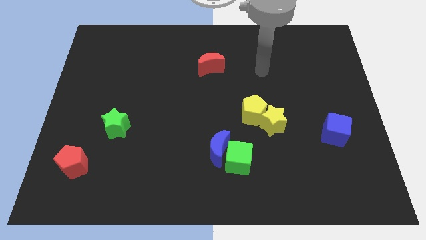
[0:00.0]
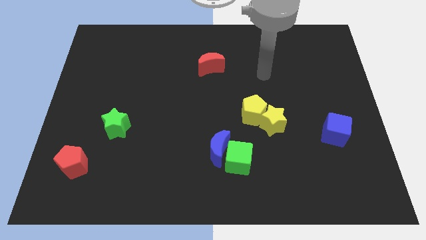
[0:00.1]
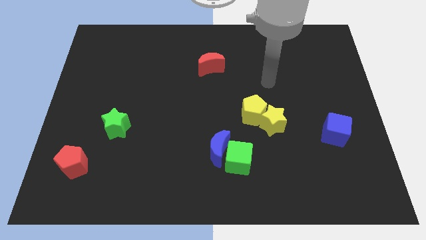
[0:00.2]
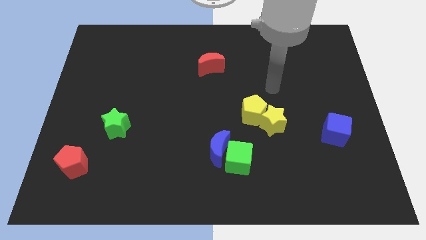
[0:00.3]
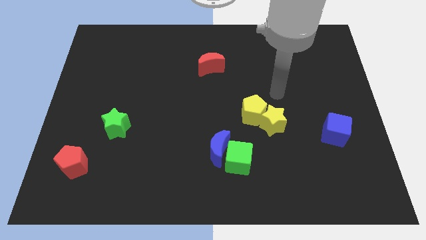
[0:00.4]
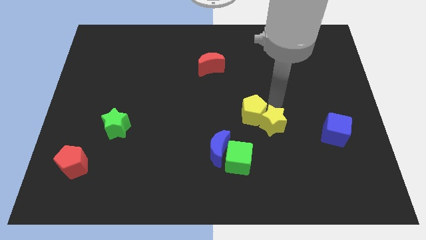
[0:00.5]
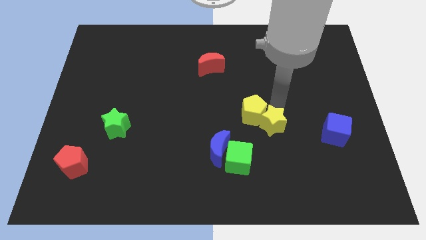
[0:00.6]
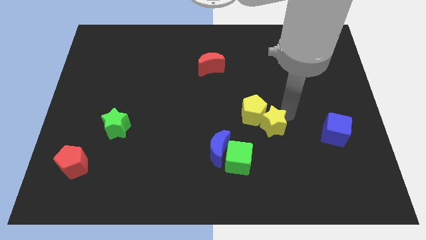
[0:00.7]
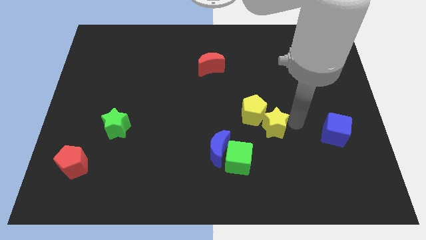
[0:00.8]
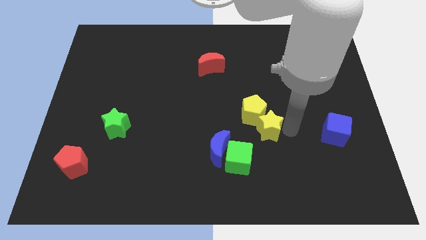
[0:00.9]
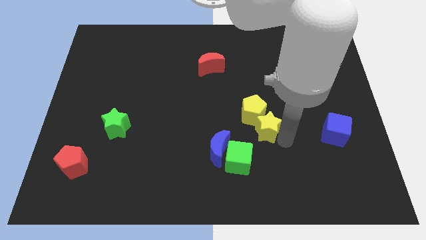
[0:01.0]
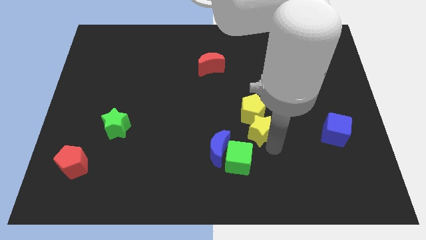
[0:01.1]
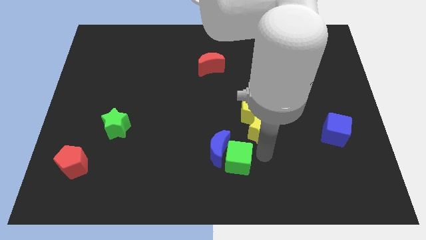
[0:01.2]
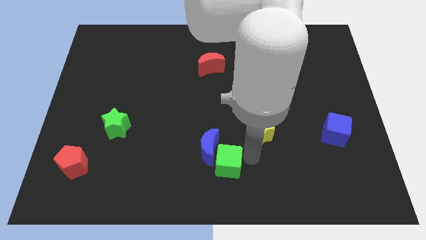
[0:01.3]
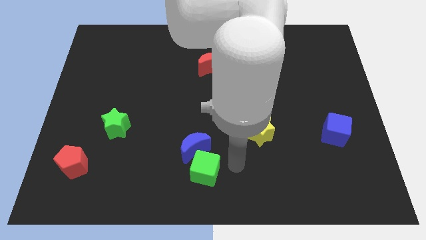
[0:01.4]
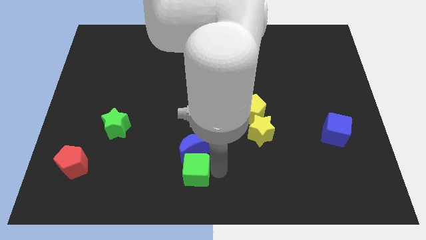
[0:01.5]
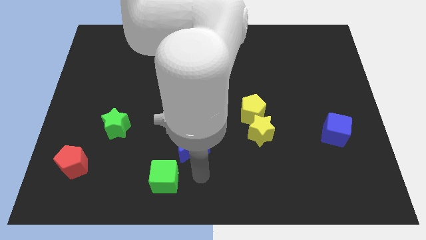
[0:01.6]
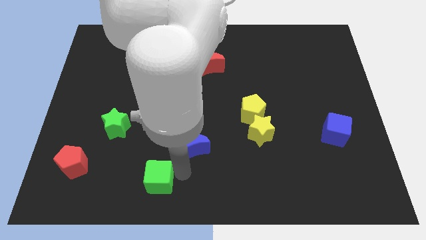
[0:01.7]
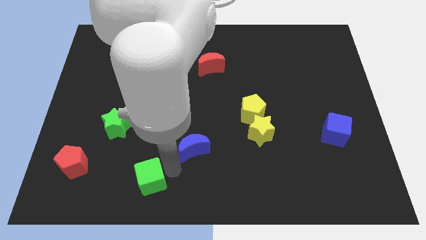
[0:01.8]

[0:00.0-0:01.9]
move the blue moon away from the green cube

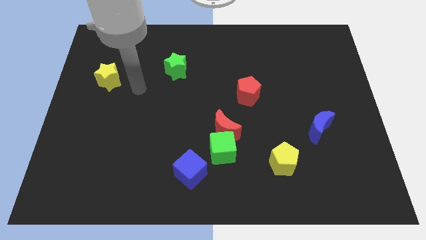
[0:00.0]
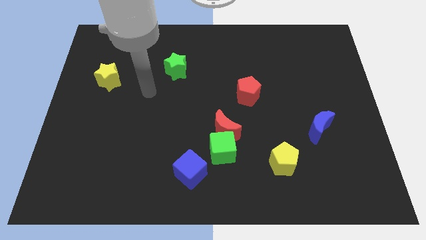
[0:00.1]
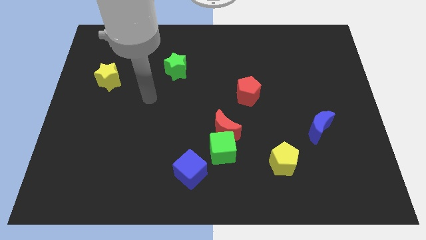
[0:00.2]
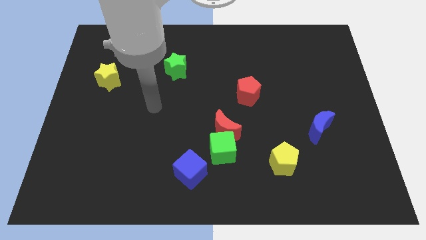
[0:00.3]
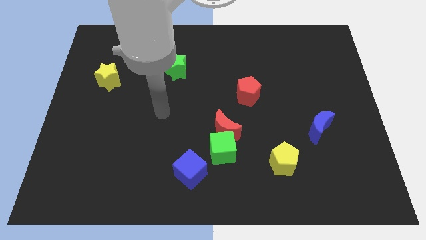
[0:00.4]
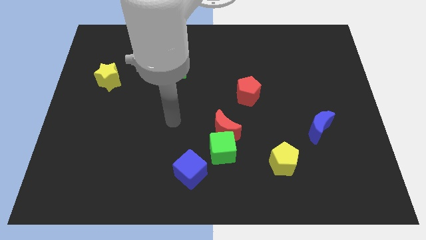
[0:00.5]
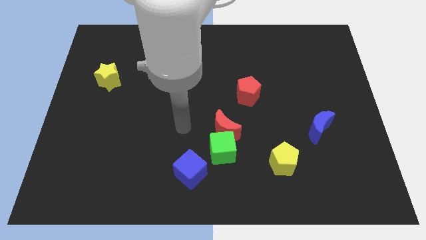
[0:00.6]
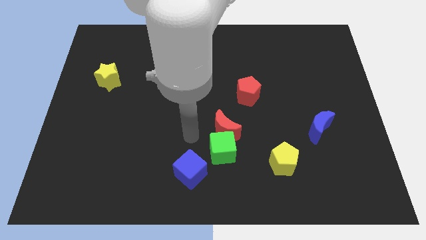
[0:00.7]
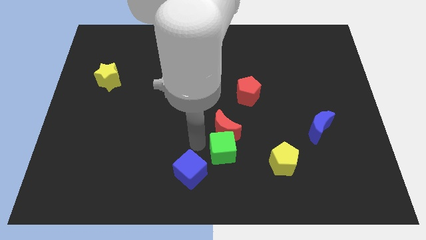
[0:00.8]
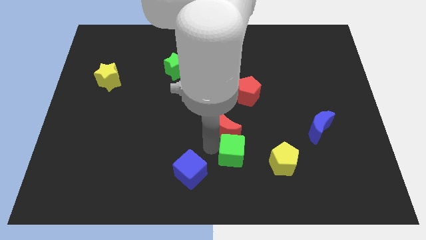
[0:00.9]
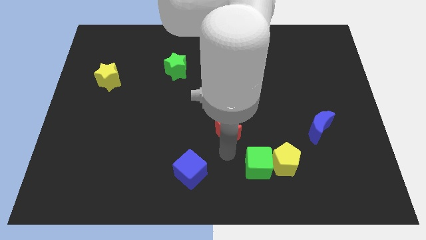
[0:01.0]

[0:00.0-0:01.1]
move the red moon away from the green cube

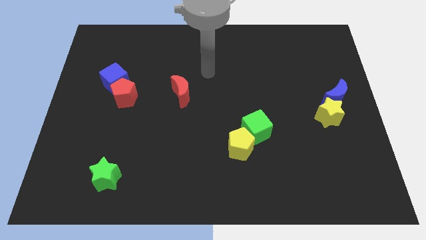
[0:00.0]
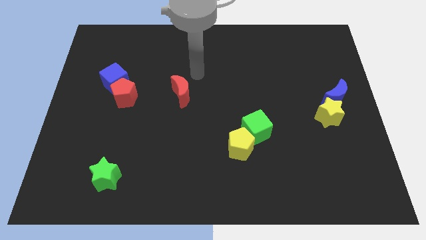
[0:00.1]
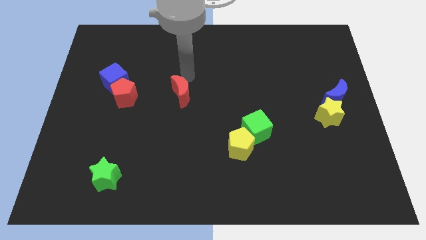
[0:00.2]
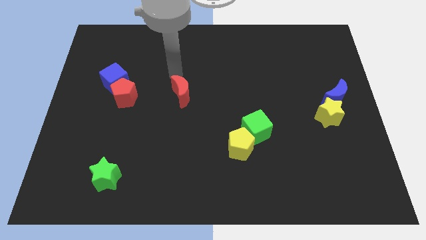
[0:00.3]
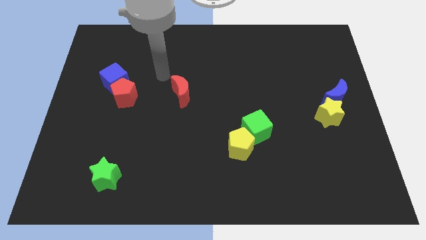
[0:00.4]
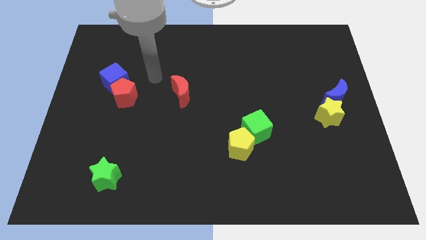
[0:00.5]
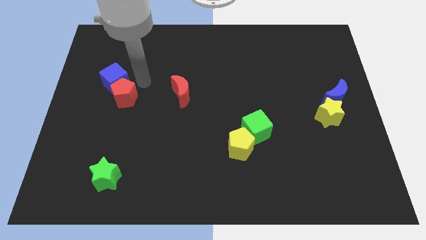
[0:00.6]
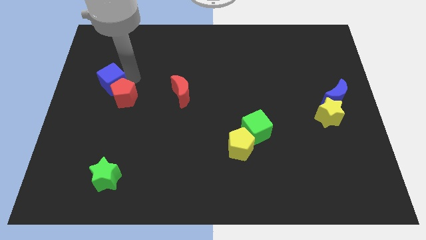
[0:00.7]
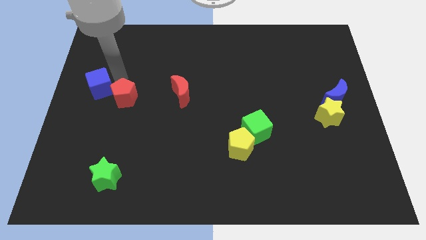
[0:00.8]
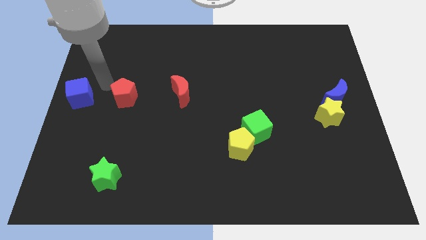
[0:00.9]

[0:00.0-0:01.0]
move the red pentagon away from the blue cube

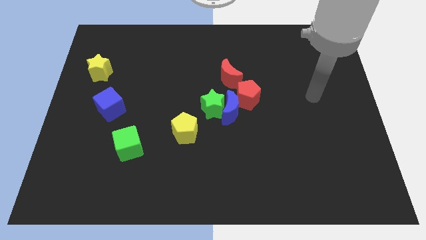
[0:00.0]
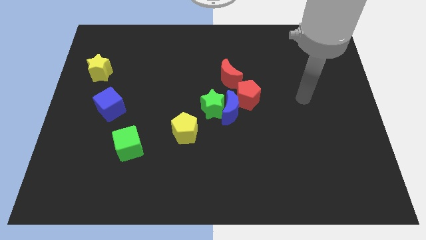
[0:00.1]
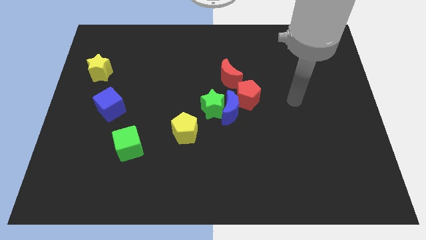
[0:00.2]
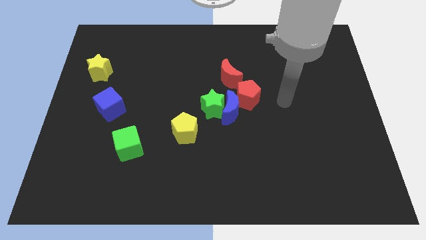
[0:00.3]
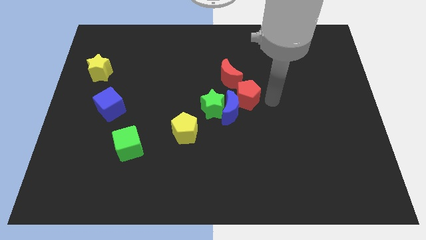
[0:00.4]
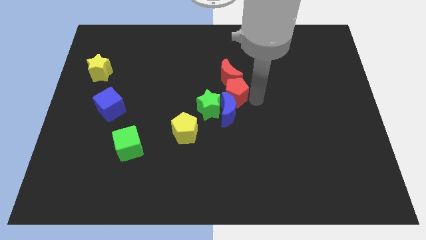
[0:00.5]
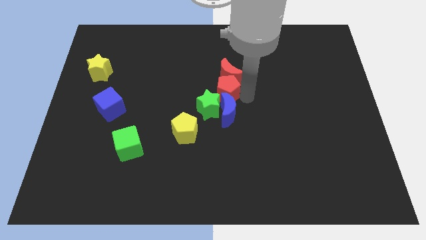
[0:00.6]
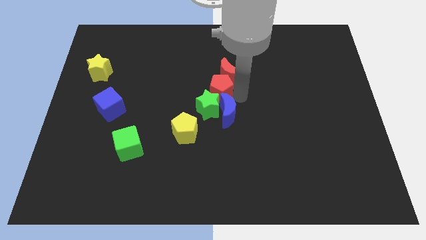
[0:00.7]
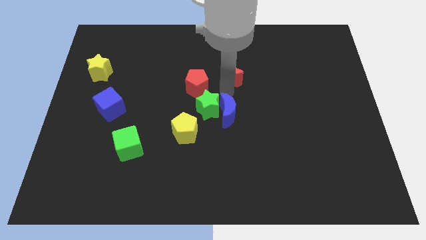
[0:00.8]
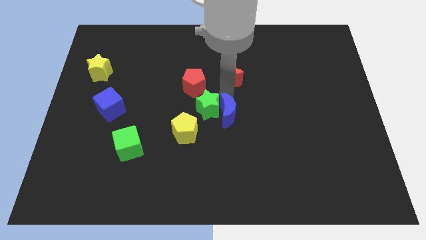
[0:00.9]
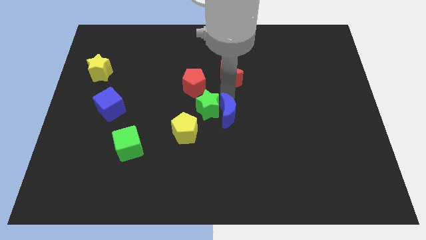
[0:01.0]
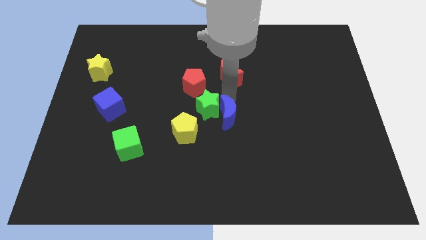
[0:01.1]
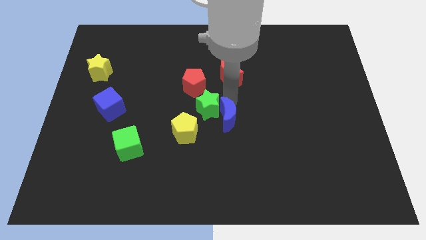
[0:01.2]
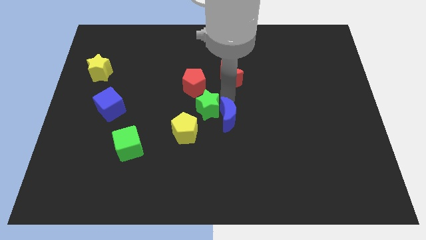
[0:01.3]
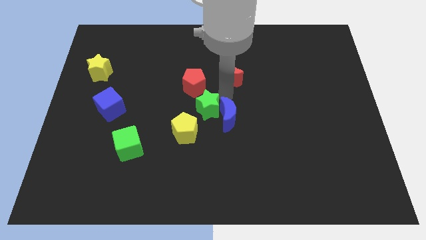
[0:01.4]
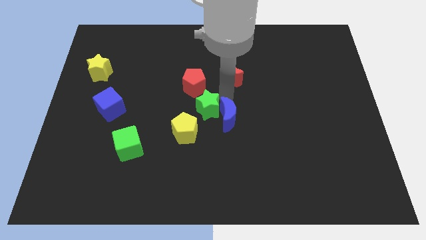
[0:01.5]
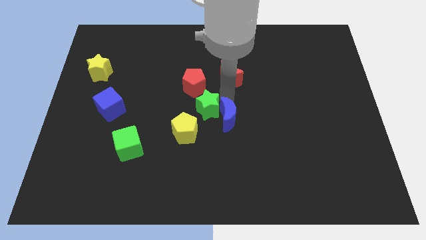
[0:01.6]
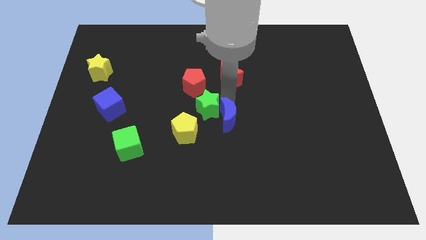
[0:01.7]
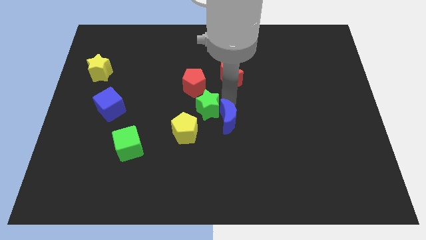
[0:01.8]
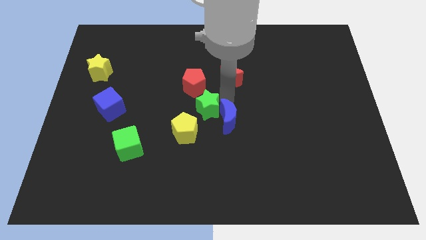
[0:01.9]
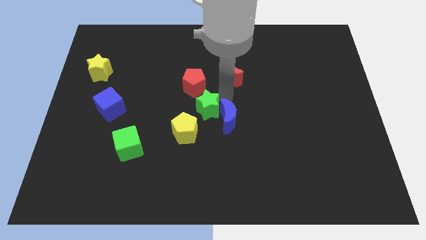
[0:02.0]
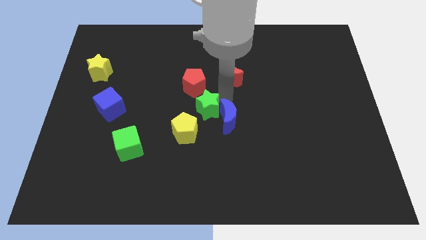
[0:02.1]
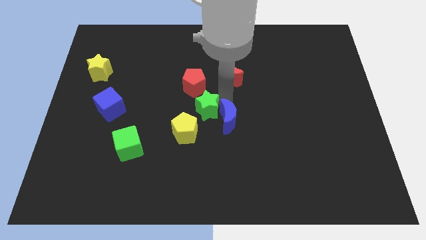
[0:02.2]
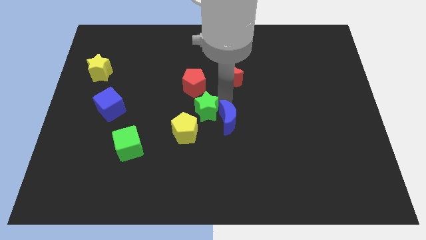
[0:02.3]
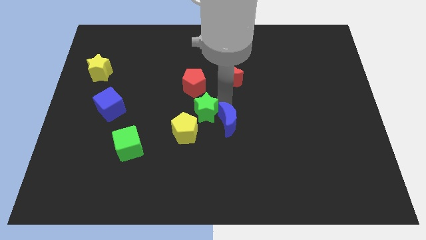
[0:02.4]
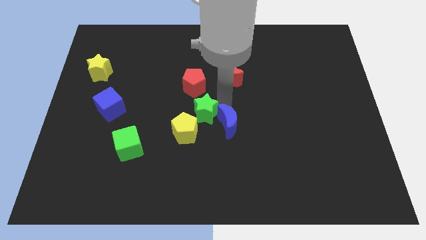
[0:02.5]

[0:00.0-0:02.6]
move the blue moon away from the green star and red pentagon

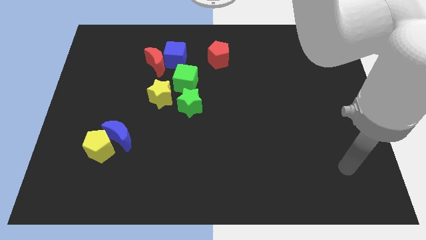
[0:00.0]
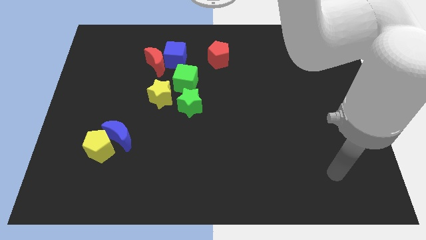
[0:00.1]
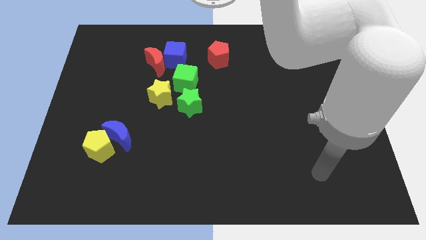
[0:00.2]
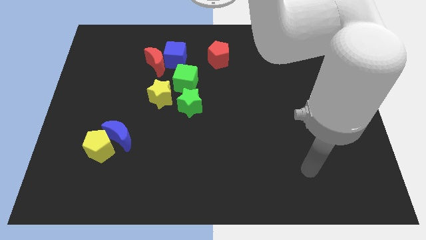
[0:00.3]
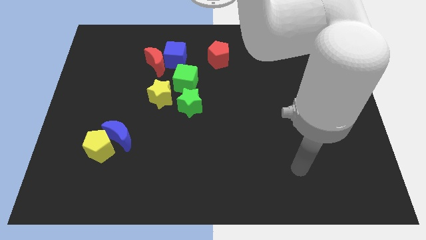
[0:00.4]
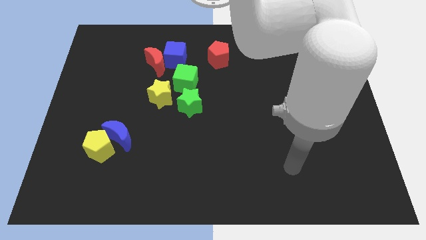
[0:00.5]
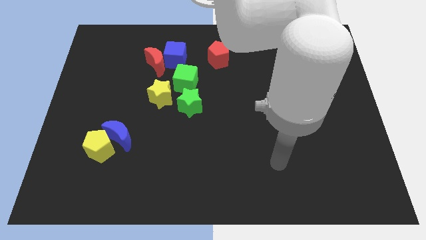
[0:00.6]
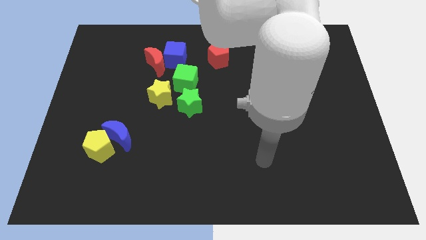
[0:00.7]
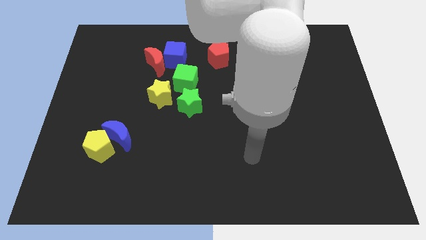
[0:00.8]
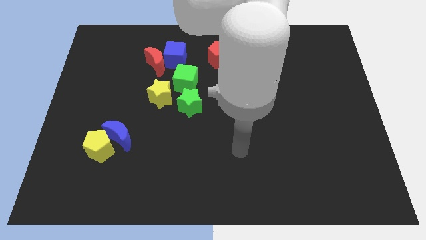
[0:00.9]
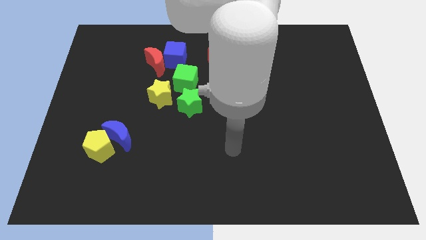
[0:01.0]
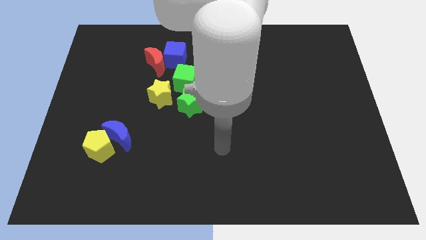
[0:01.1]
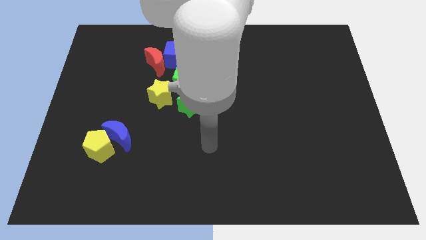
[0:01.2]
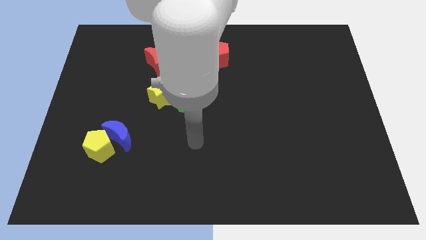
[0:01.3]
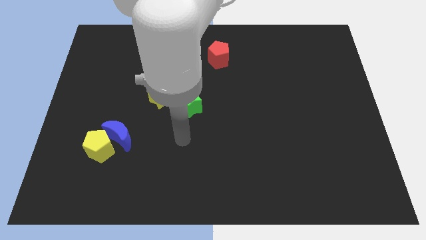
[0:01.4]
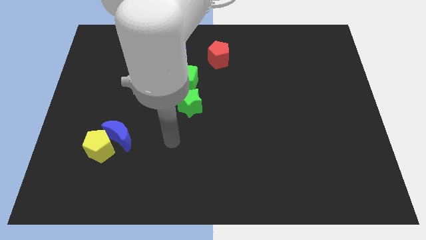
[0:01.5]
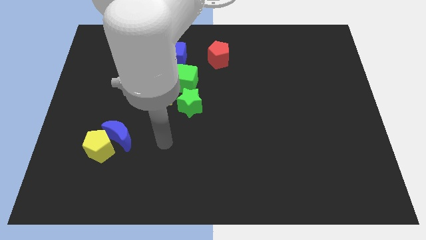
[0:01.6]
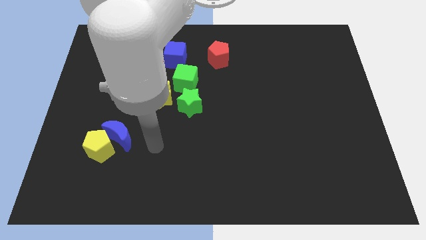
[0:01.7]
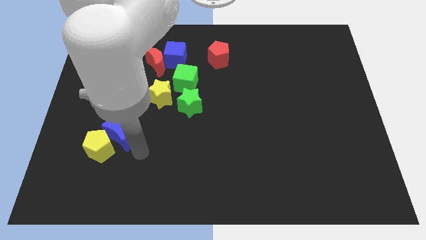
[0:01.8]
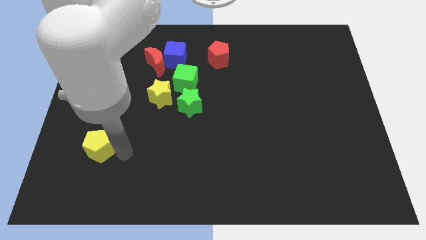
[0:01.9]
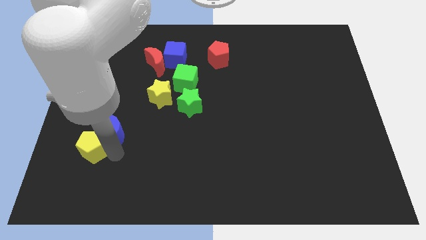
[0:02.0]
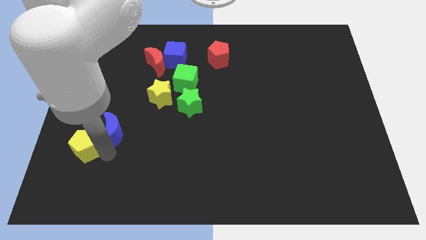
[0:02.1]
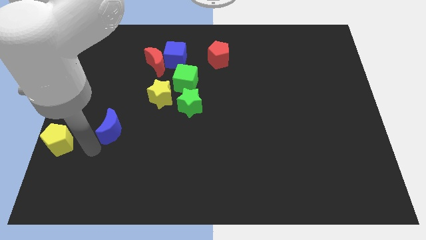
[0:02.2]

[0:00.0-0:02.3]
pull the blue moon apart from the yellow pentagon

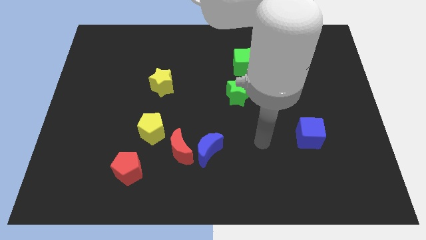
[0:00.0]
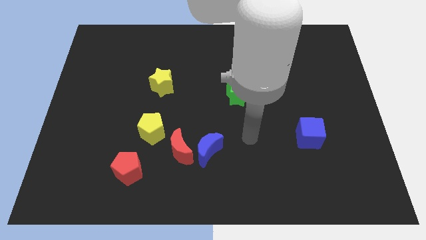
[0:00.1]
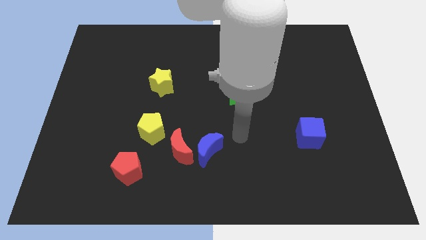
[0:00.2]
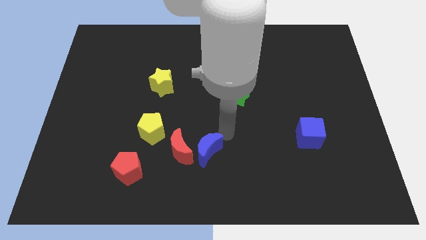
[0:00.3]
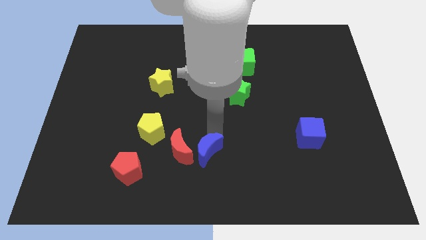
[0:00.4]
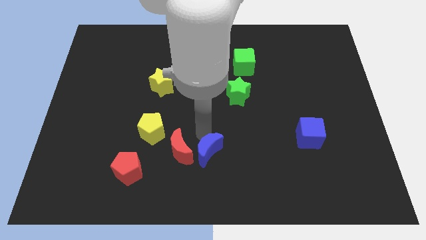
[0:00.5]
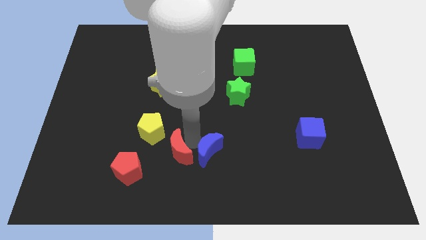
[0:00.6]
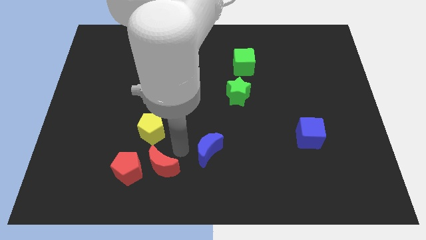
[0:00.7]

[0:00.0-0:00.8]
separate the blue moon from the red moon
